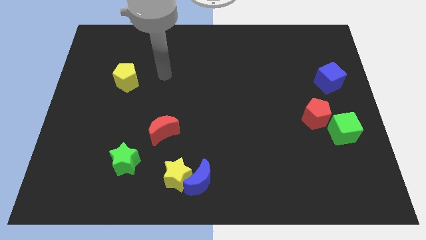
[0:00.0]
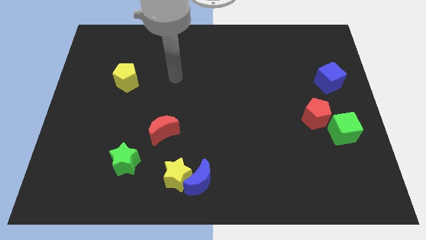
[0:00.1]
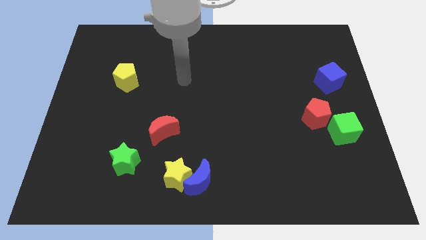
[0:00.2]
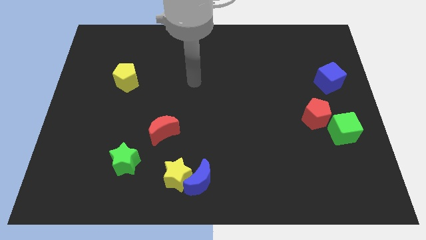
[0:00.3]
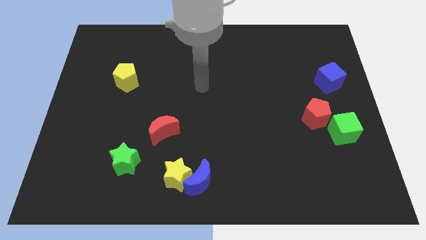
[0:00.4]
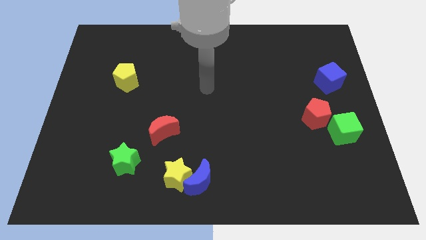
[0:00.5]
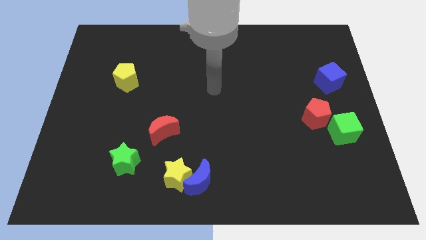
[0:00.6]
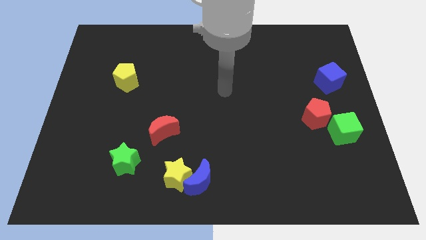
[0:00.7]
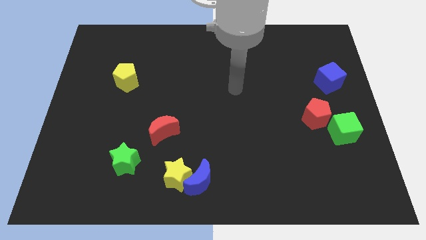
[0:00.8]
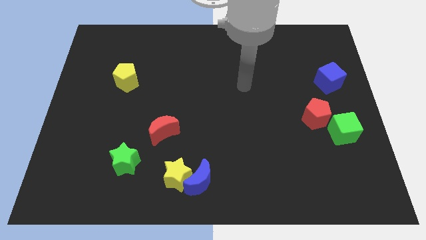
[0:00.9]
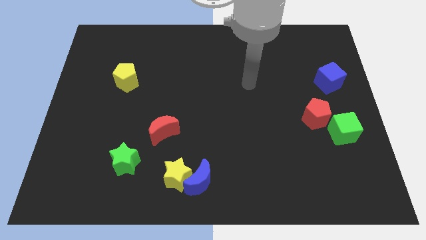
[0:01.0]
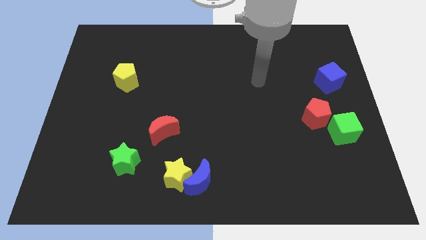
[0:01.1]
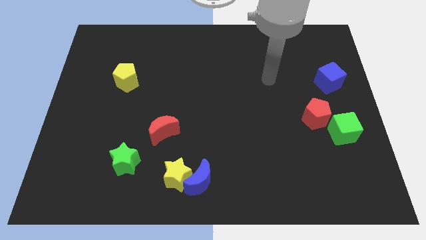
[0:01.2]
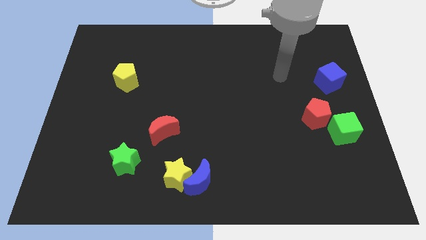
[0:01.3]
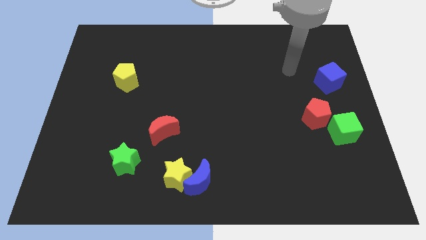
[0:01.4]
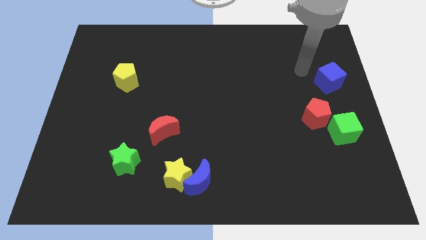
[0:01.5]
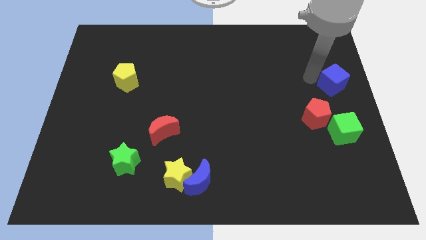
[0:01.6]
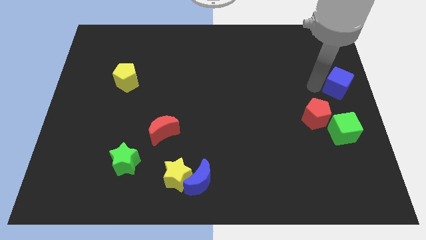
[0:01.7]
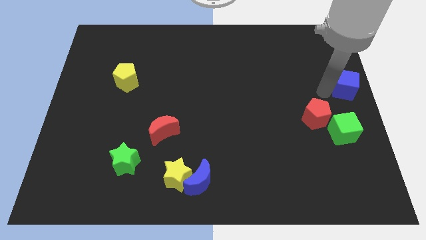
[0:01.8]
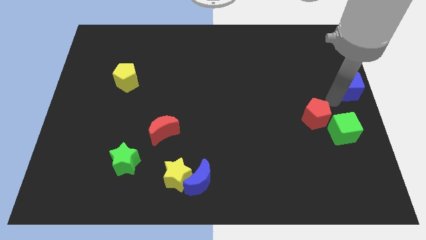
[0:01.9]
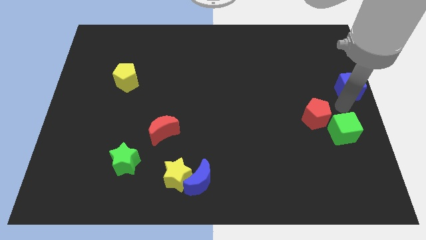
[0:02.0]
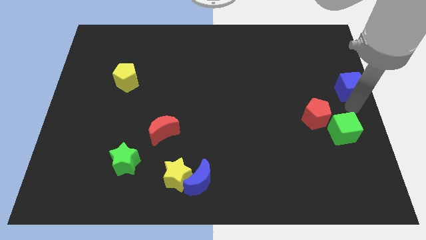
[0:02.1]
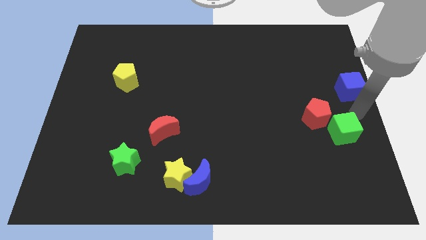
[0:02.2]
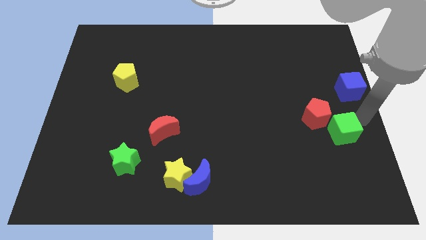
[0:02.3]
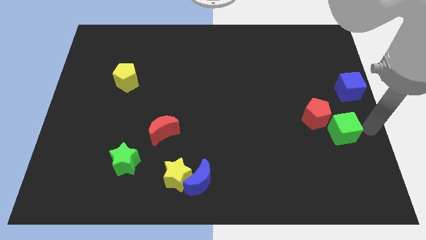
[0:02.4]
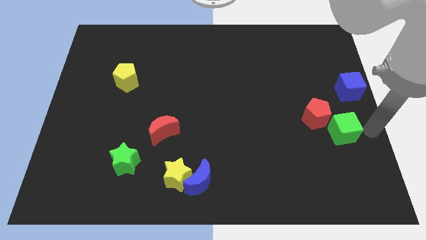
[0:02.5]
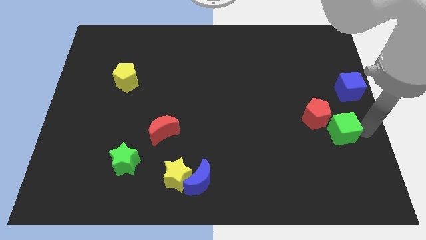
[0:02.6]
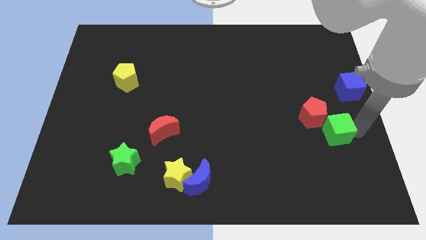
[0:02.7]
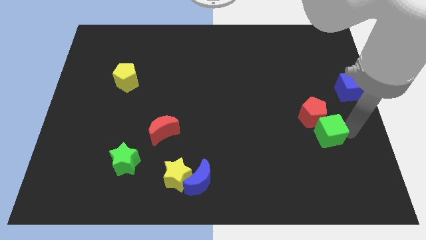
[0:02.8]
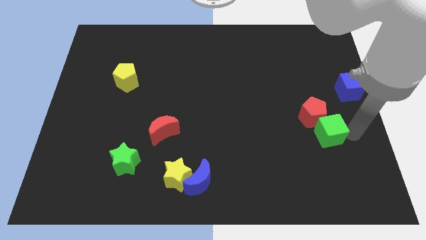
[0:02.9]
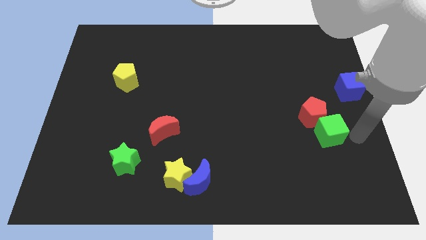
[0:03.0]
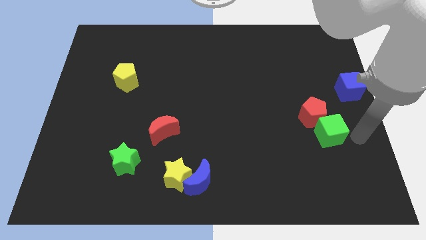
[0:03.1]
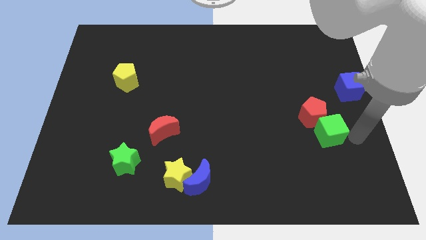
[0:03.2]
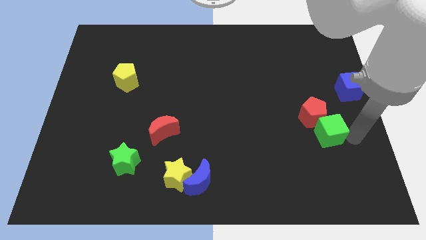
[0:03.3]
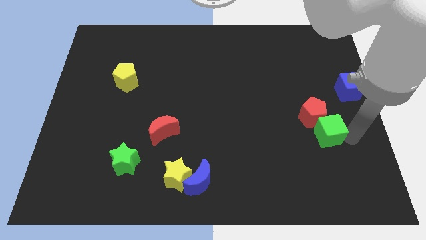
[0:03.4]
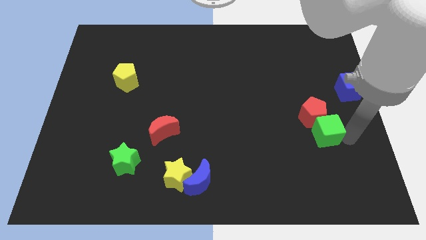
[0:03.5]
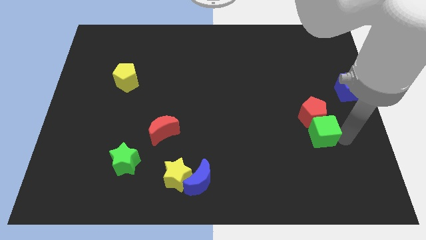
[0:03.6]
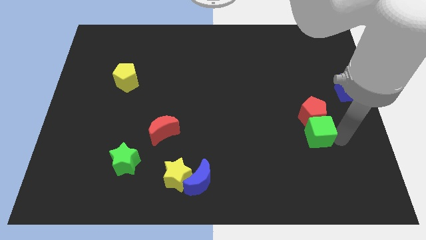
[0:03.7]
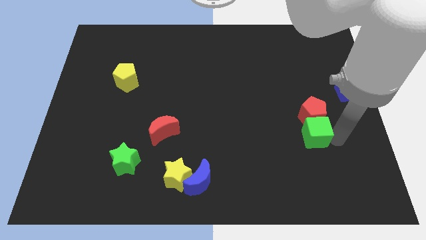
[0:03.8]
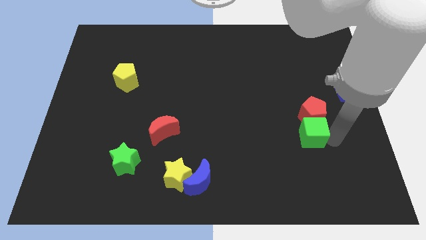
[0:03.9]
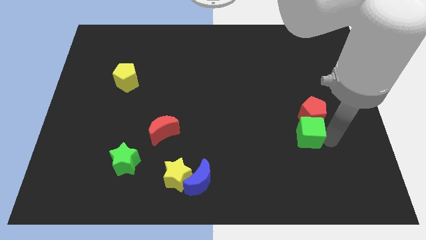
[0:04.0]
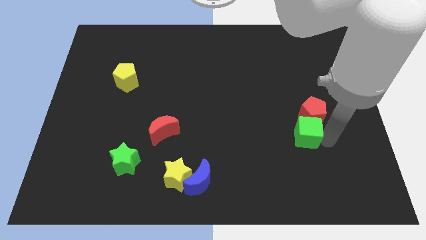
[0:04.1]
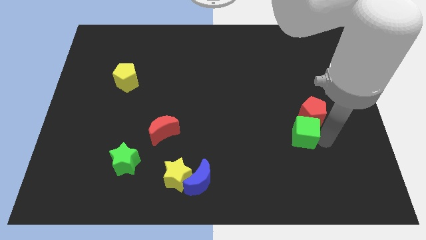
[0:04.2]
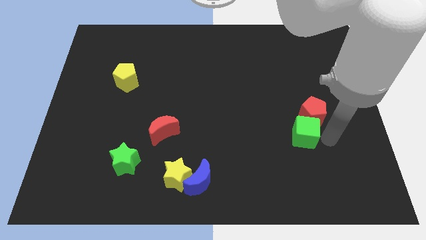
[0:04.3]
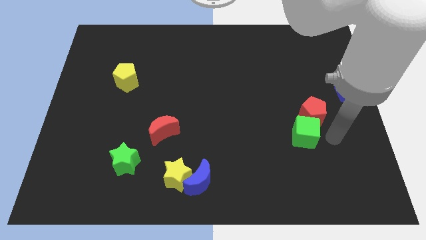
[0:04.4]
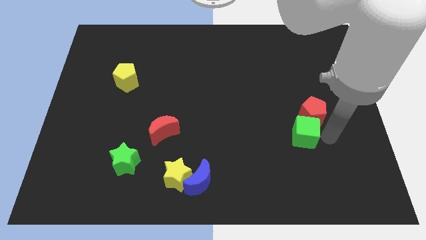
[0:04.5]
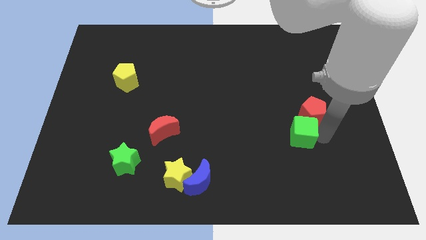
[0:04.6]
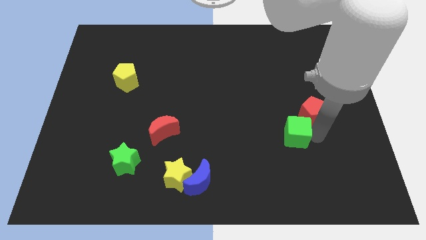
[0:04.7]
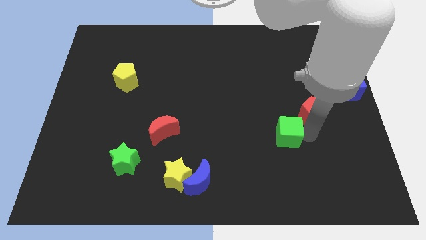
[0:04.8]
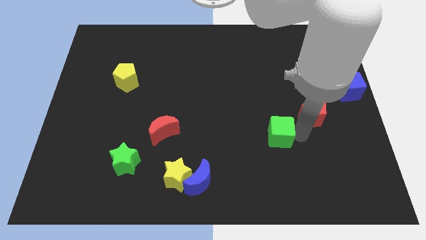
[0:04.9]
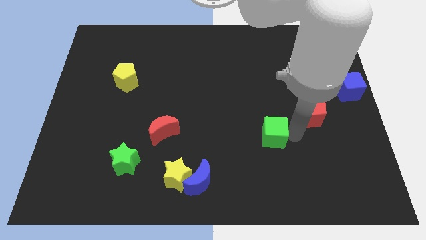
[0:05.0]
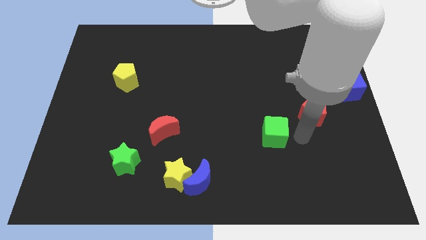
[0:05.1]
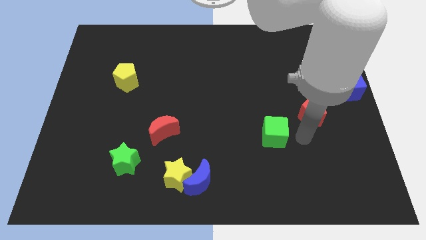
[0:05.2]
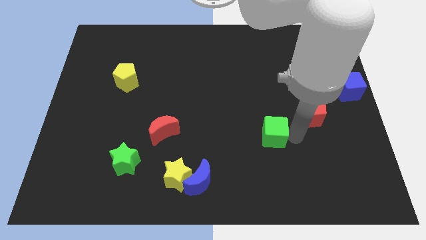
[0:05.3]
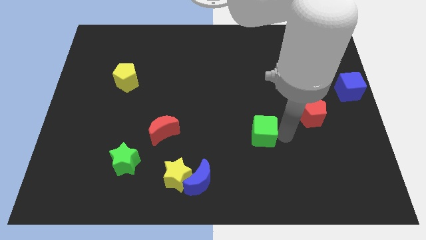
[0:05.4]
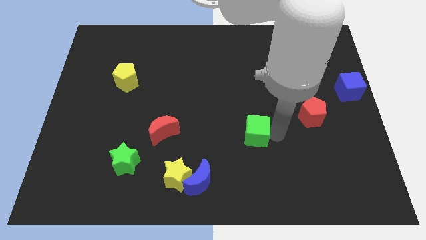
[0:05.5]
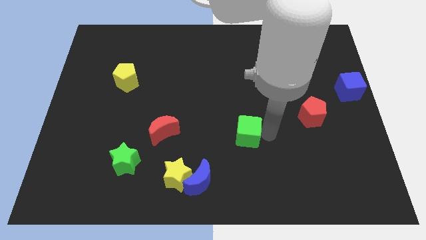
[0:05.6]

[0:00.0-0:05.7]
slide the green cube to the left

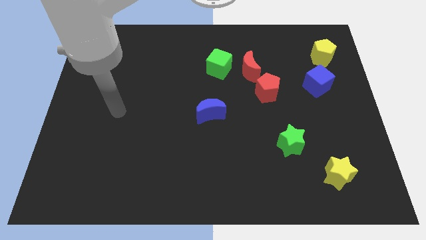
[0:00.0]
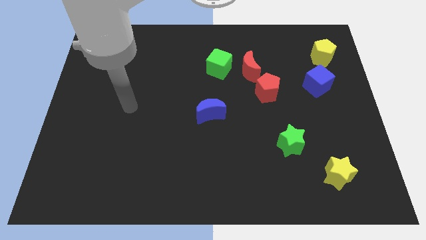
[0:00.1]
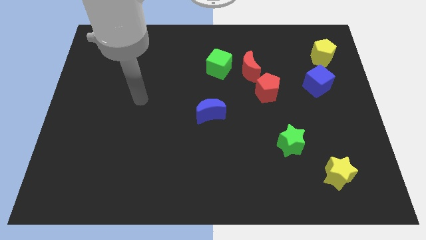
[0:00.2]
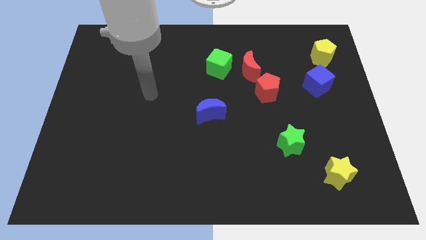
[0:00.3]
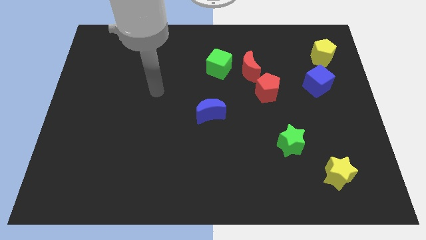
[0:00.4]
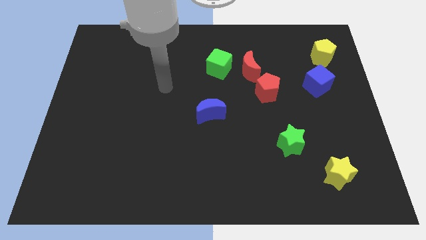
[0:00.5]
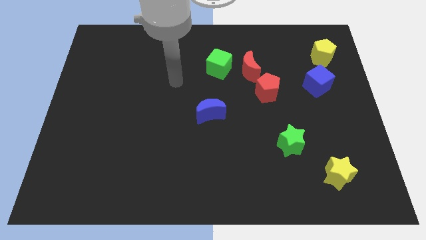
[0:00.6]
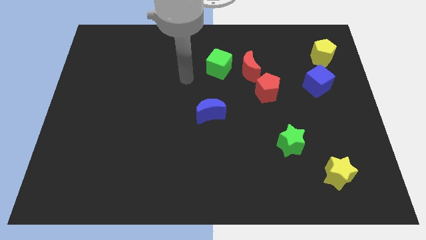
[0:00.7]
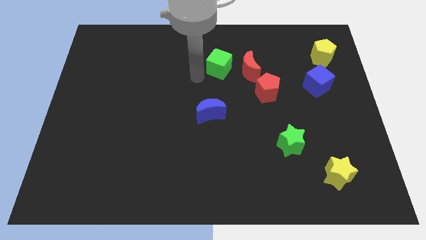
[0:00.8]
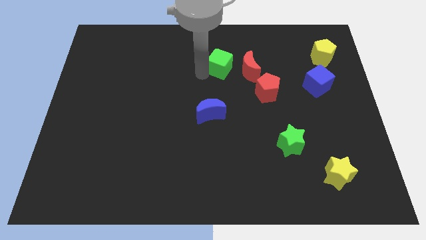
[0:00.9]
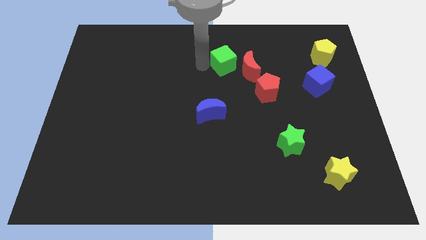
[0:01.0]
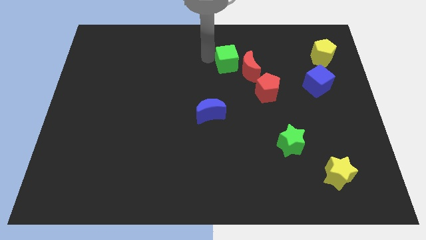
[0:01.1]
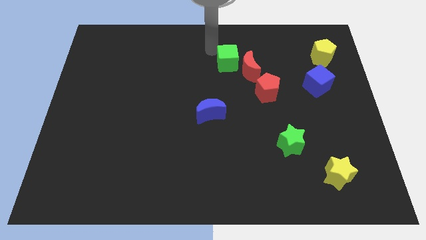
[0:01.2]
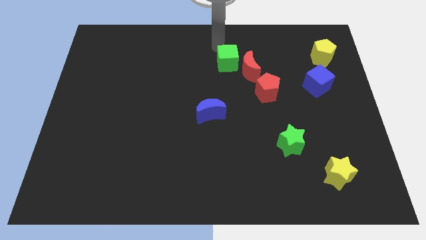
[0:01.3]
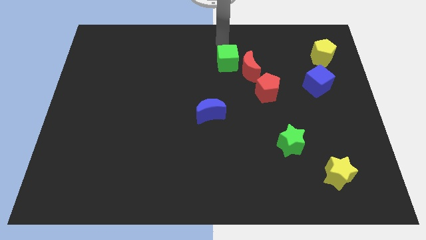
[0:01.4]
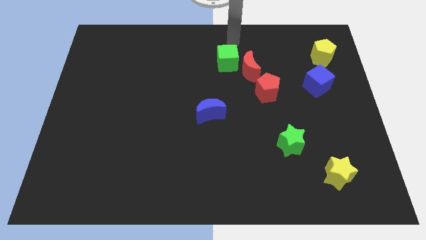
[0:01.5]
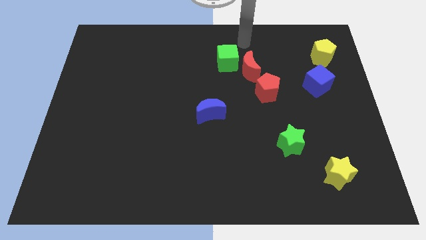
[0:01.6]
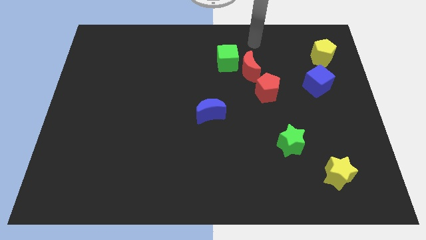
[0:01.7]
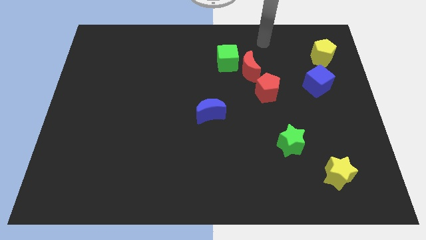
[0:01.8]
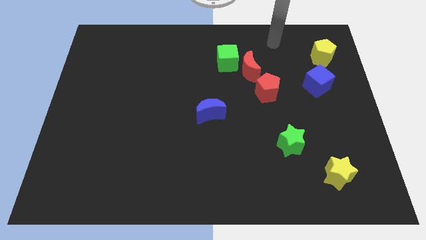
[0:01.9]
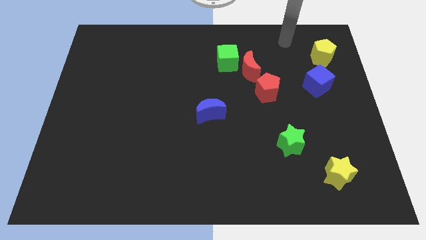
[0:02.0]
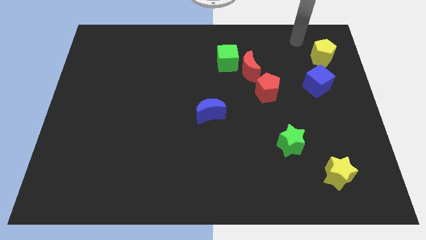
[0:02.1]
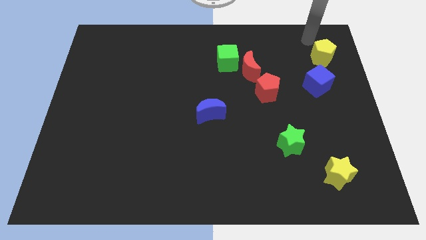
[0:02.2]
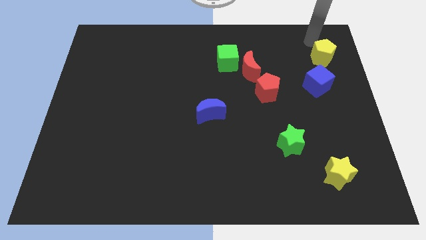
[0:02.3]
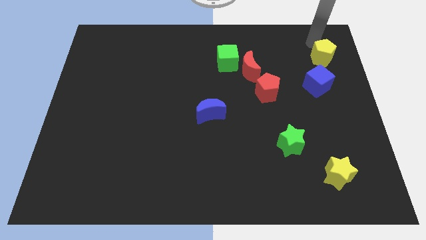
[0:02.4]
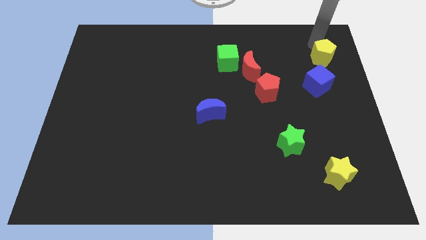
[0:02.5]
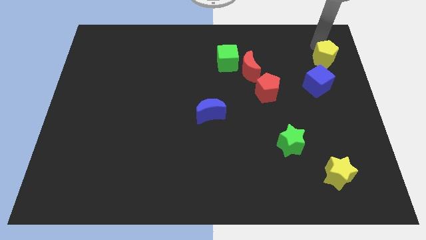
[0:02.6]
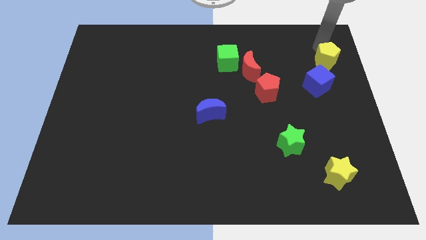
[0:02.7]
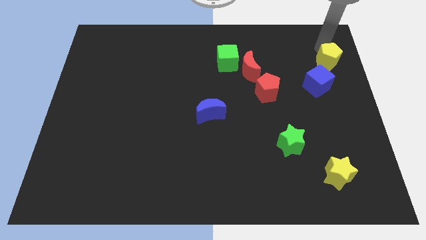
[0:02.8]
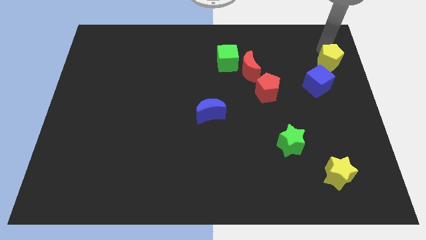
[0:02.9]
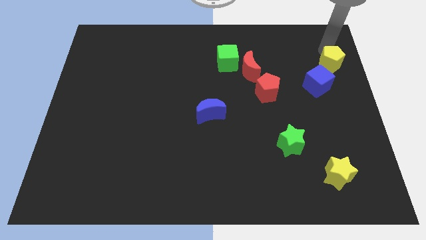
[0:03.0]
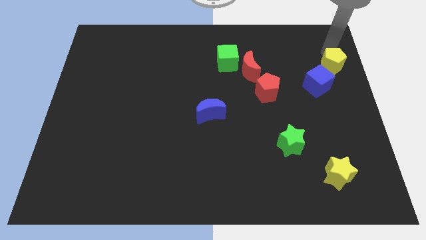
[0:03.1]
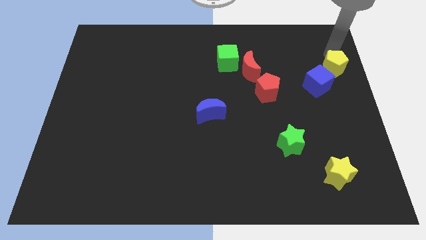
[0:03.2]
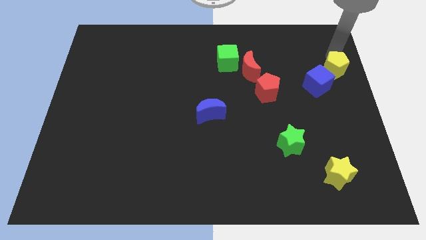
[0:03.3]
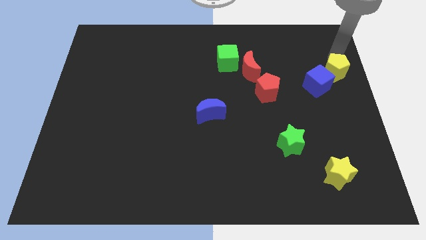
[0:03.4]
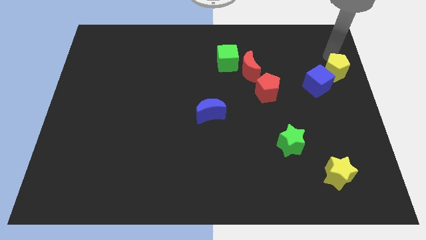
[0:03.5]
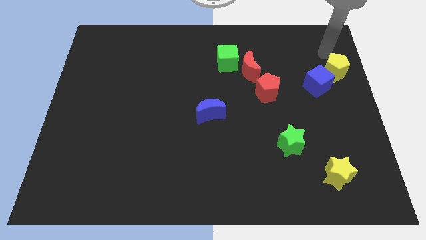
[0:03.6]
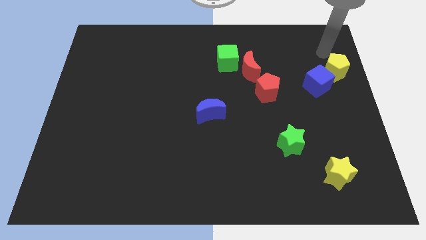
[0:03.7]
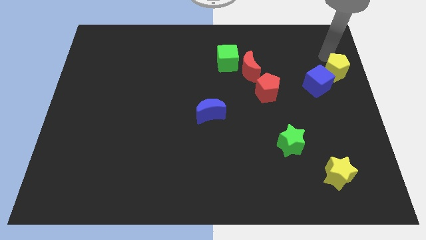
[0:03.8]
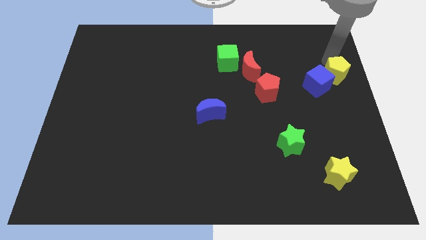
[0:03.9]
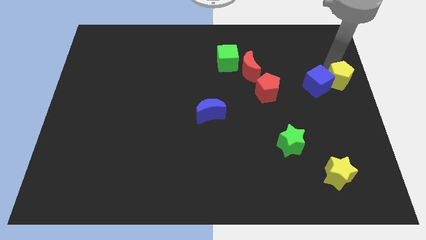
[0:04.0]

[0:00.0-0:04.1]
move the yellow pentagon slightly down
